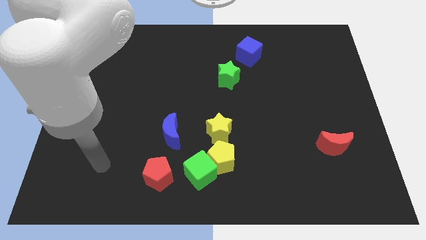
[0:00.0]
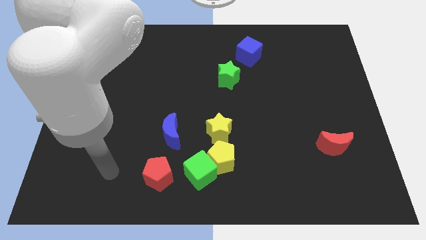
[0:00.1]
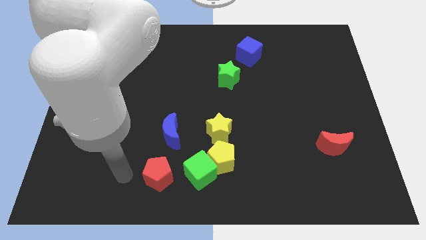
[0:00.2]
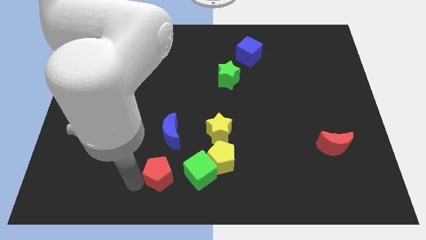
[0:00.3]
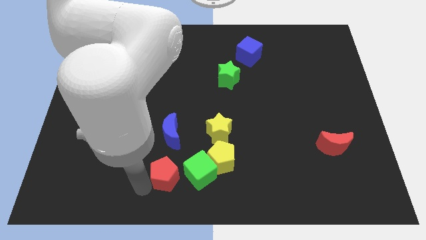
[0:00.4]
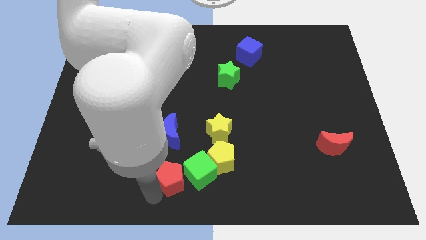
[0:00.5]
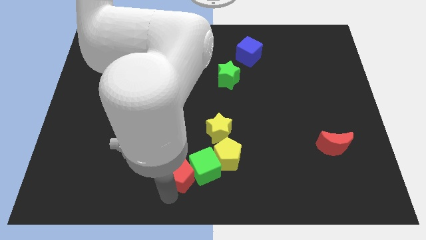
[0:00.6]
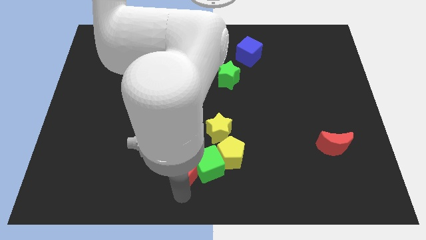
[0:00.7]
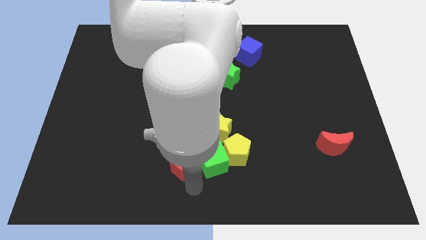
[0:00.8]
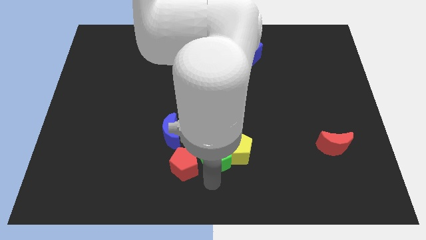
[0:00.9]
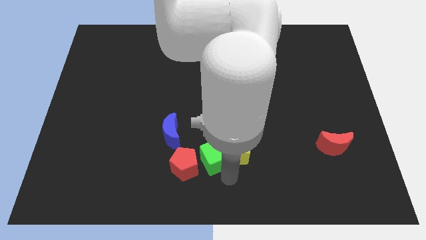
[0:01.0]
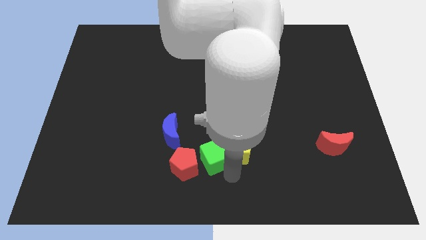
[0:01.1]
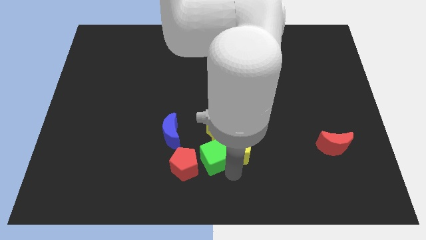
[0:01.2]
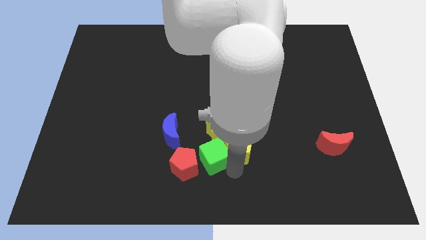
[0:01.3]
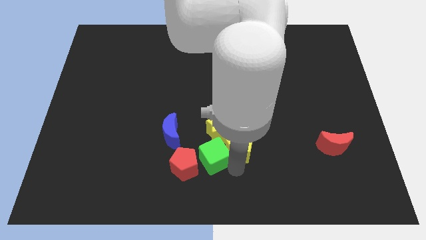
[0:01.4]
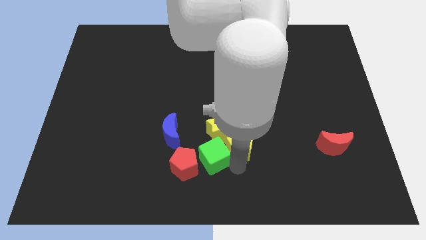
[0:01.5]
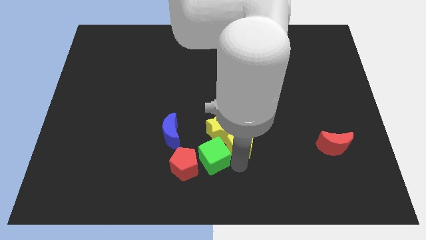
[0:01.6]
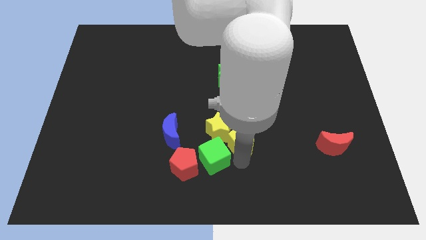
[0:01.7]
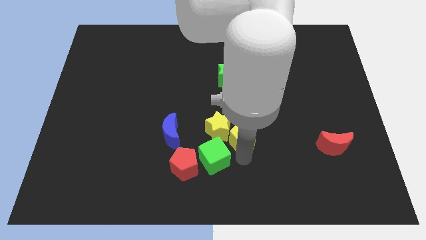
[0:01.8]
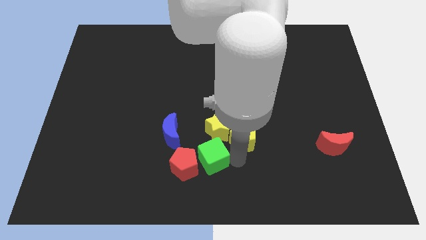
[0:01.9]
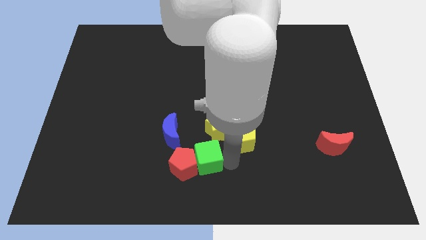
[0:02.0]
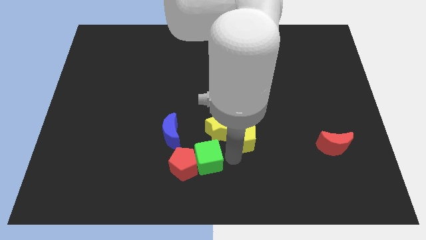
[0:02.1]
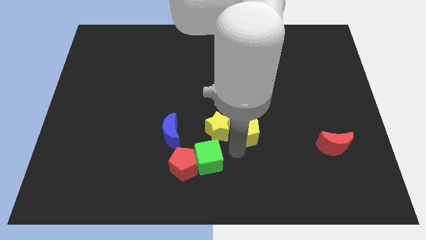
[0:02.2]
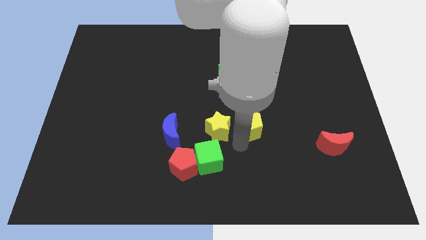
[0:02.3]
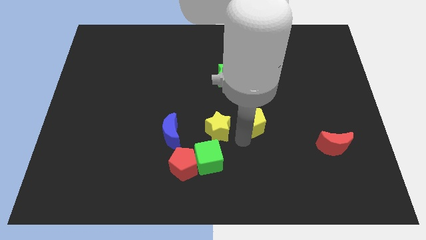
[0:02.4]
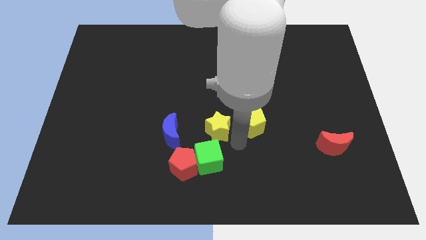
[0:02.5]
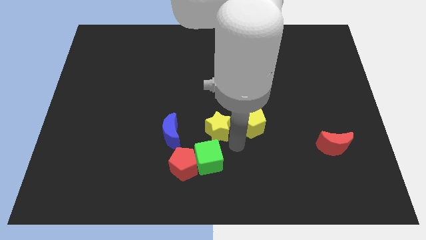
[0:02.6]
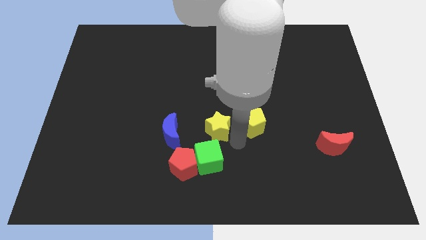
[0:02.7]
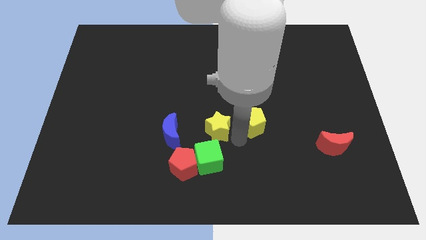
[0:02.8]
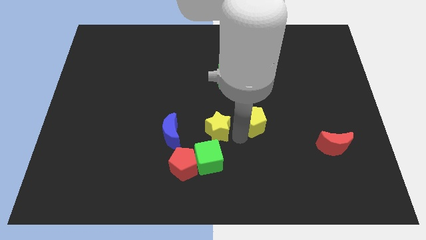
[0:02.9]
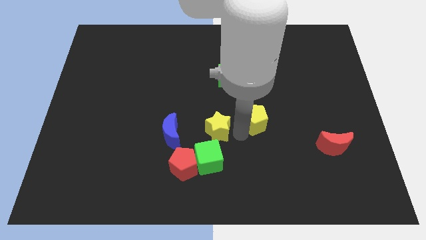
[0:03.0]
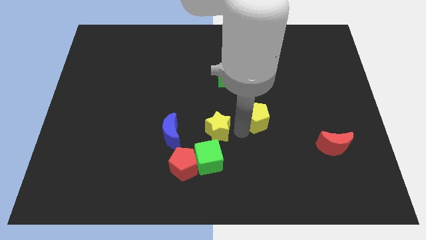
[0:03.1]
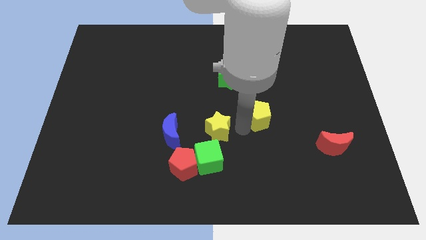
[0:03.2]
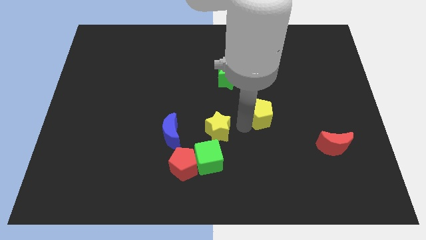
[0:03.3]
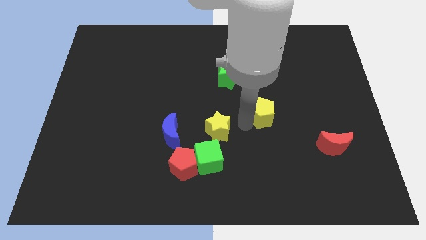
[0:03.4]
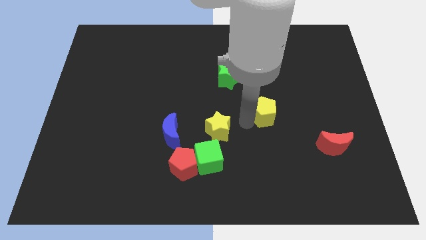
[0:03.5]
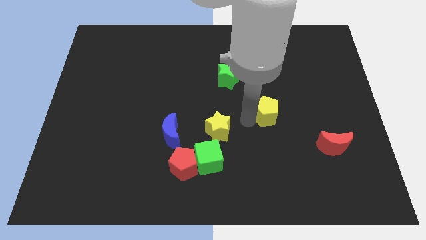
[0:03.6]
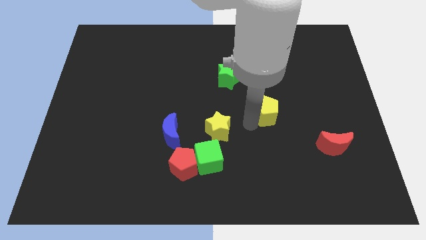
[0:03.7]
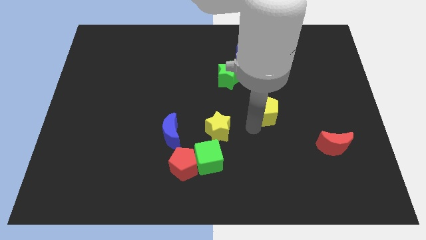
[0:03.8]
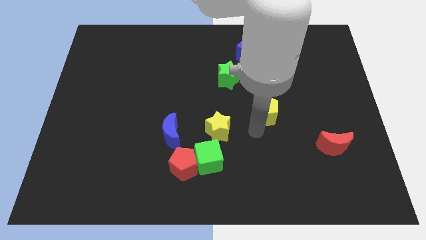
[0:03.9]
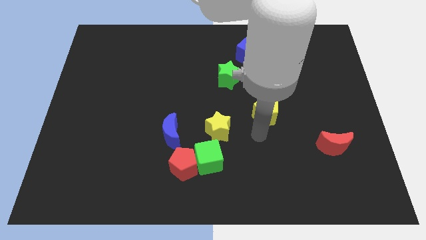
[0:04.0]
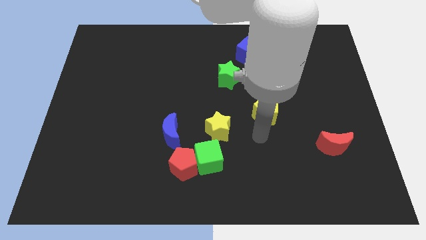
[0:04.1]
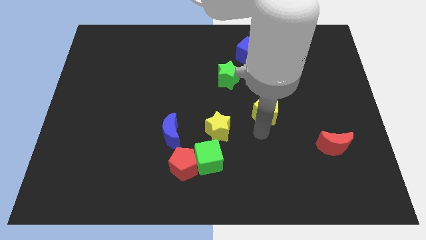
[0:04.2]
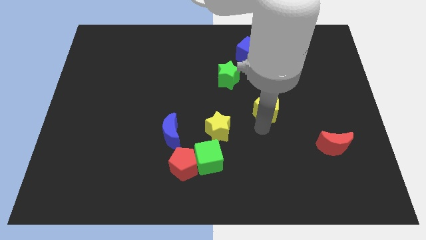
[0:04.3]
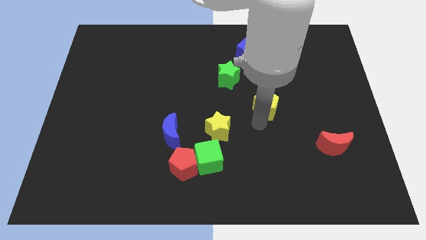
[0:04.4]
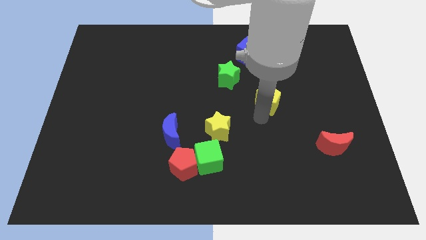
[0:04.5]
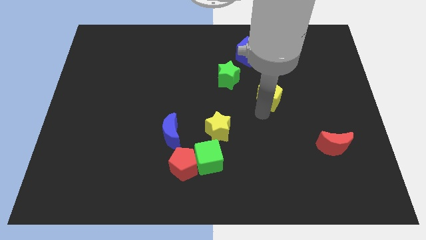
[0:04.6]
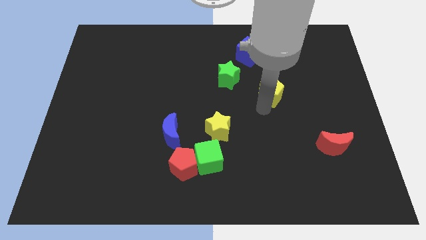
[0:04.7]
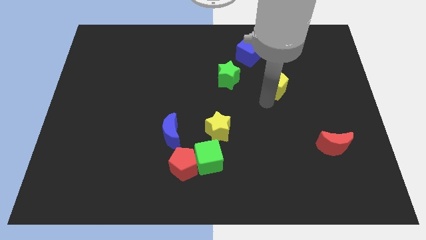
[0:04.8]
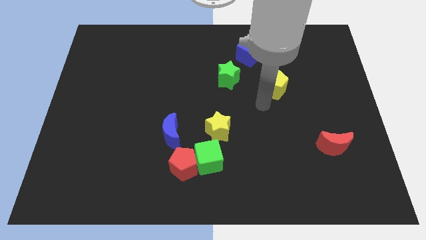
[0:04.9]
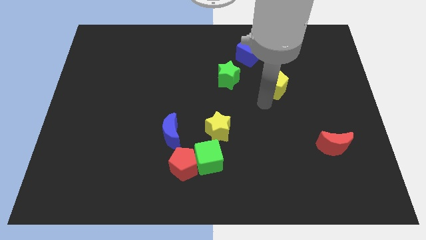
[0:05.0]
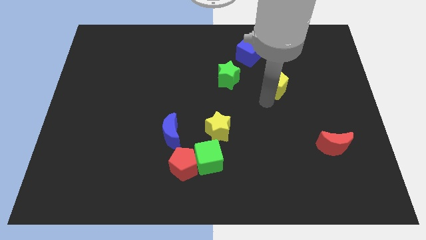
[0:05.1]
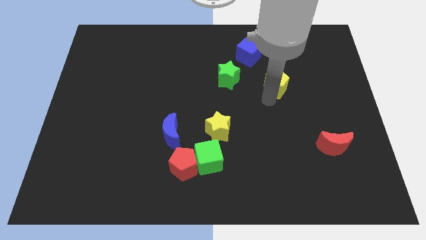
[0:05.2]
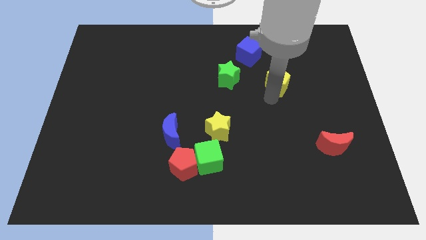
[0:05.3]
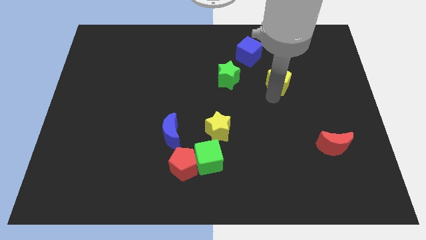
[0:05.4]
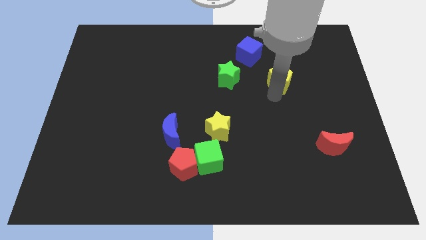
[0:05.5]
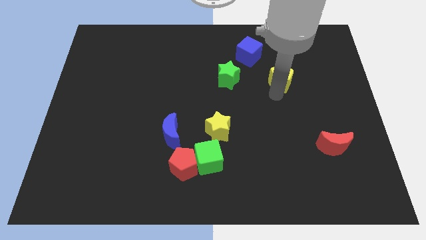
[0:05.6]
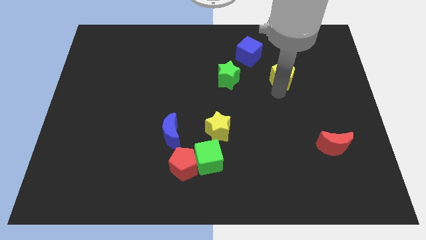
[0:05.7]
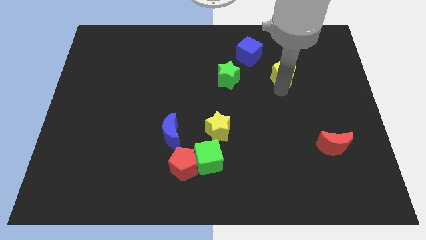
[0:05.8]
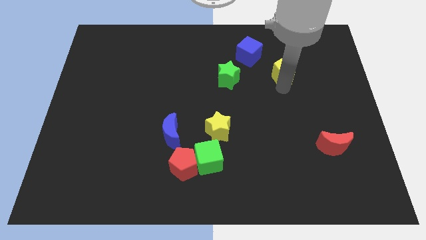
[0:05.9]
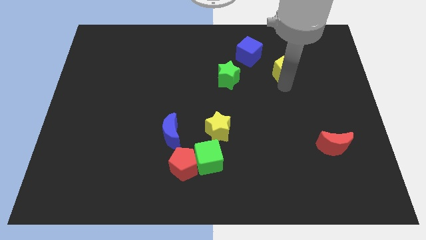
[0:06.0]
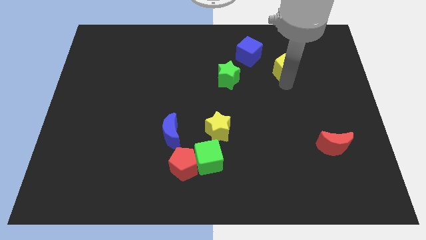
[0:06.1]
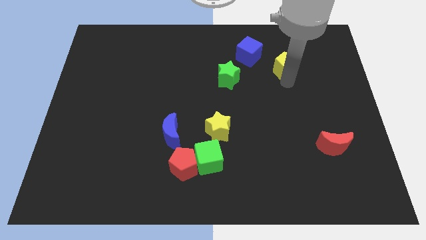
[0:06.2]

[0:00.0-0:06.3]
put the yellow pentagon to the right of the blue cube

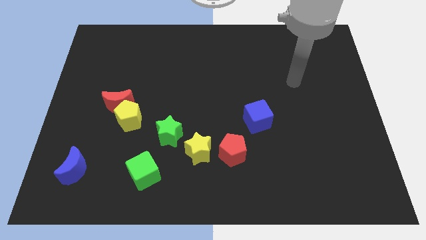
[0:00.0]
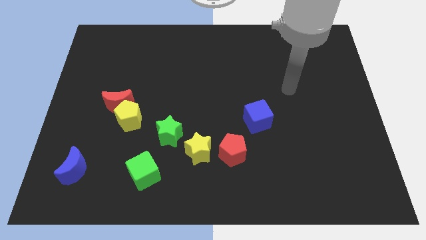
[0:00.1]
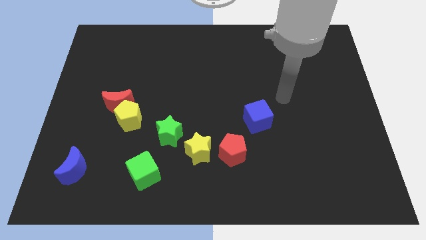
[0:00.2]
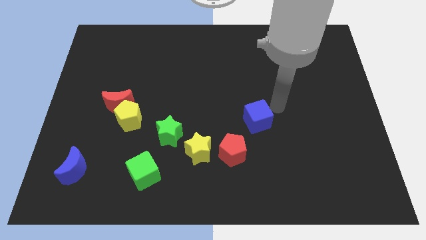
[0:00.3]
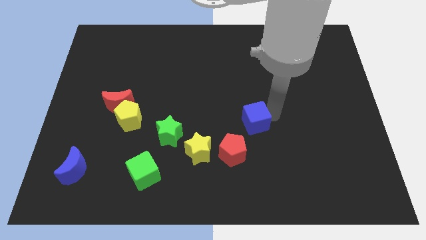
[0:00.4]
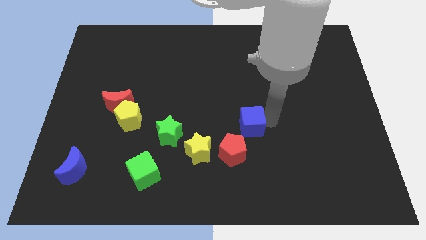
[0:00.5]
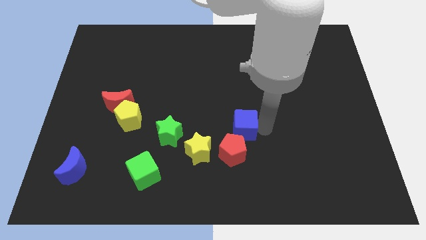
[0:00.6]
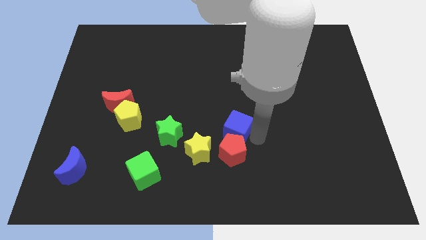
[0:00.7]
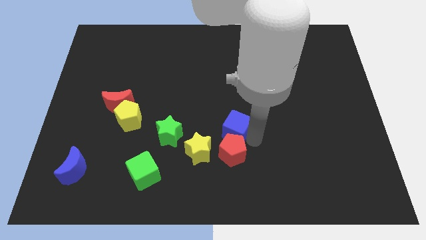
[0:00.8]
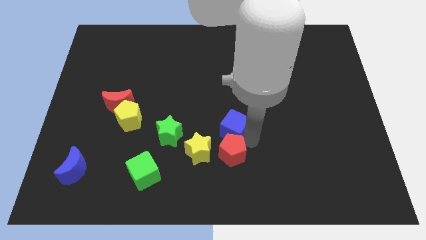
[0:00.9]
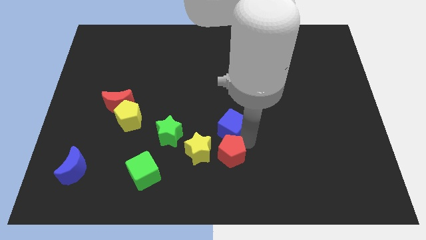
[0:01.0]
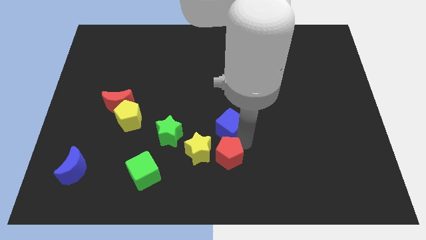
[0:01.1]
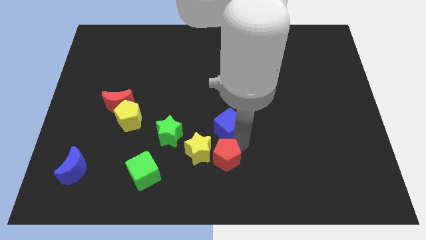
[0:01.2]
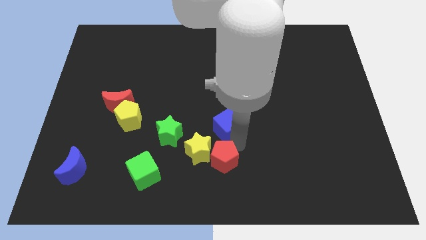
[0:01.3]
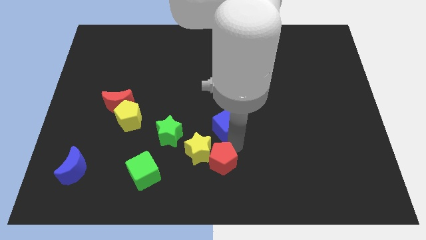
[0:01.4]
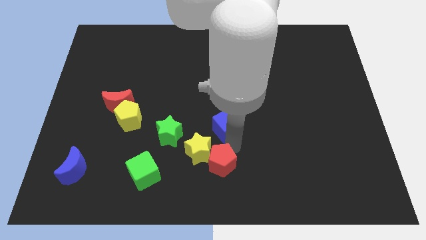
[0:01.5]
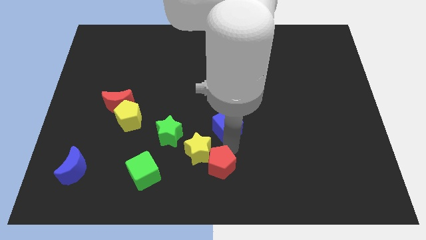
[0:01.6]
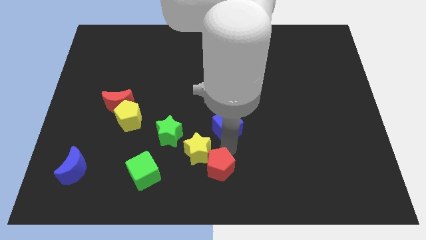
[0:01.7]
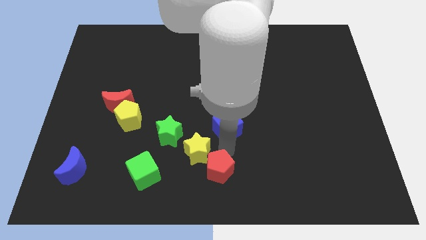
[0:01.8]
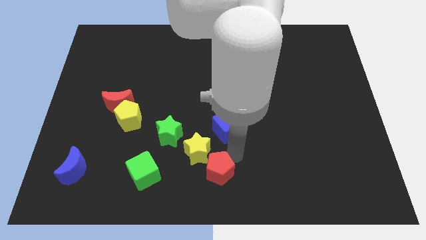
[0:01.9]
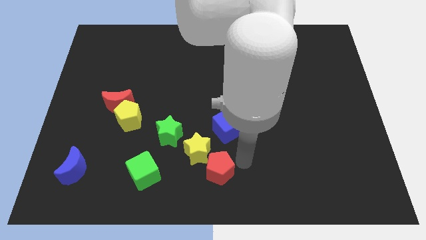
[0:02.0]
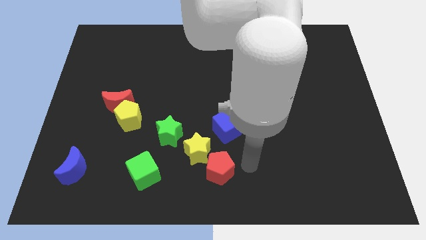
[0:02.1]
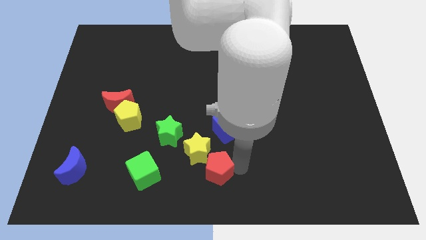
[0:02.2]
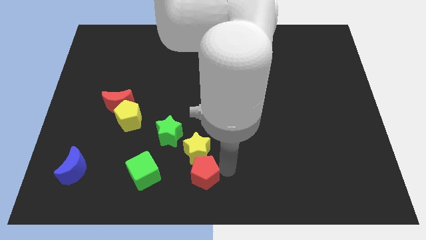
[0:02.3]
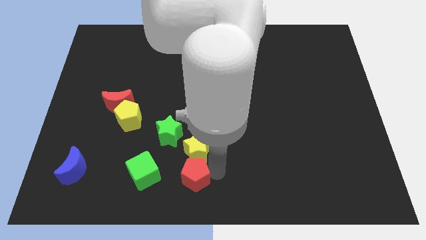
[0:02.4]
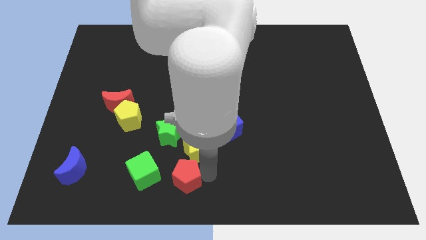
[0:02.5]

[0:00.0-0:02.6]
put the red pentagon to the bottom side of the green star
